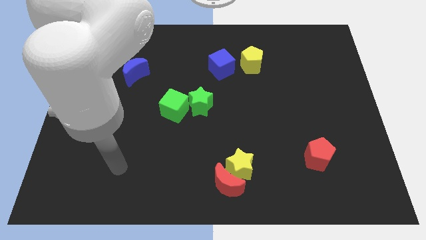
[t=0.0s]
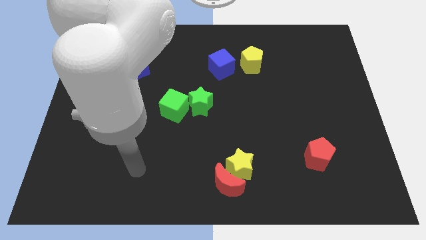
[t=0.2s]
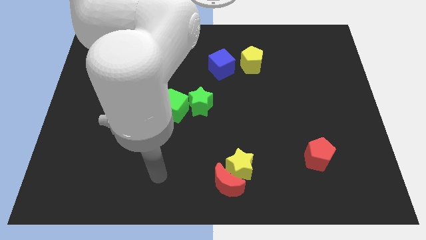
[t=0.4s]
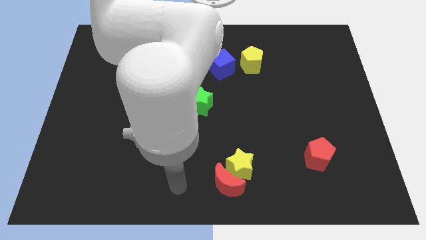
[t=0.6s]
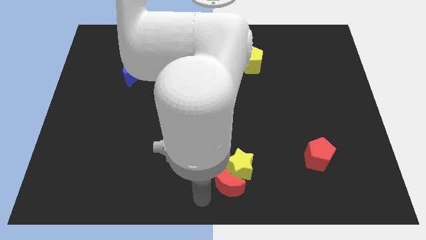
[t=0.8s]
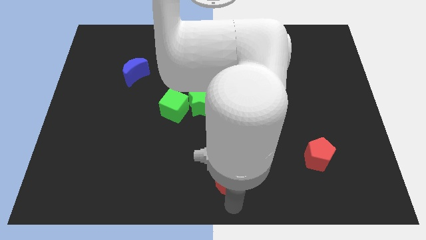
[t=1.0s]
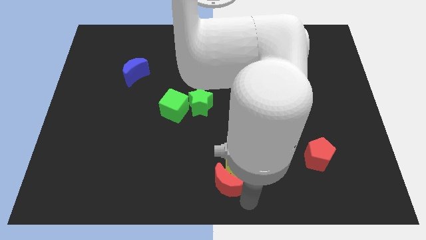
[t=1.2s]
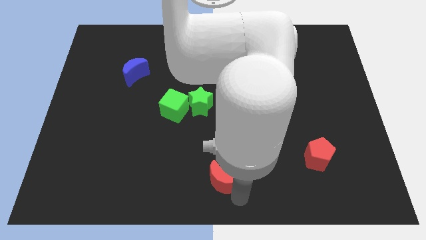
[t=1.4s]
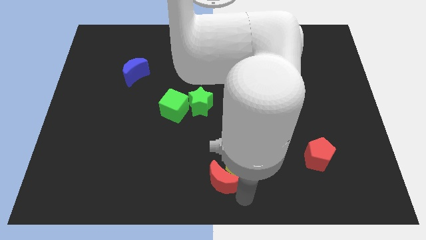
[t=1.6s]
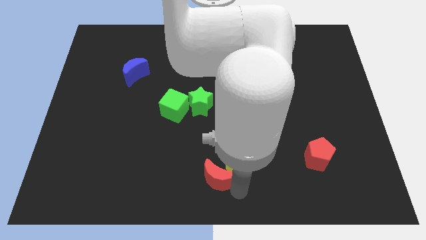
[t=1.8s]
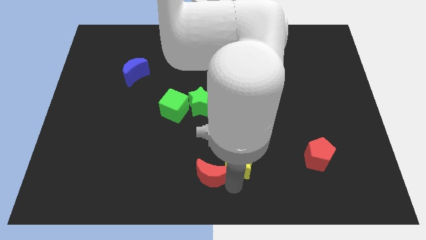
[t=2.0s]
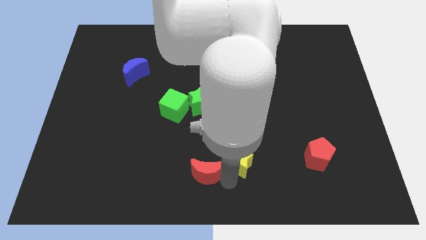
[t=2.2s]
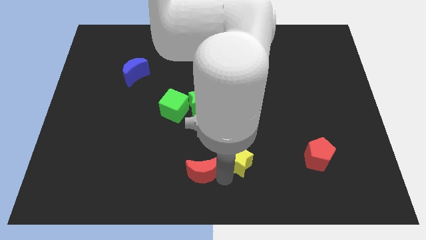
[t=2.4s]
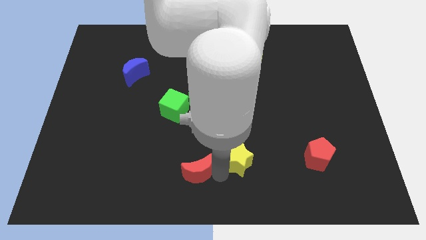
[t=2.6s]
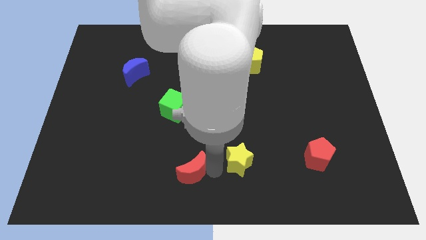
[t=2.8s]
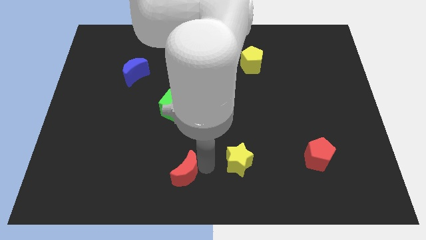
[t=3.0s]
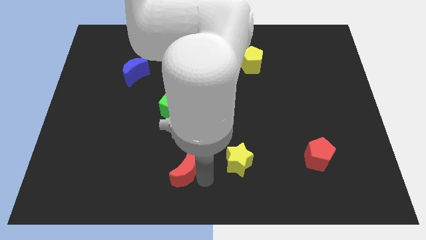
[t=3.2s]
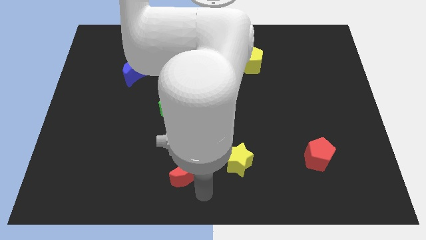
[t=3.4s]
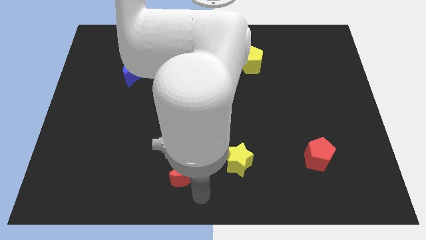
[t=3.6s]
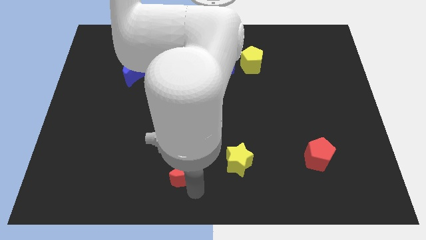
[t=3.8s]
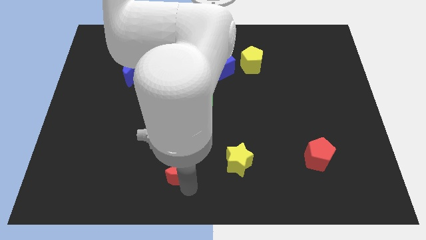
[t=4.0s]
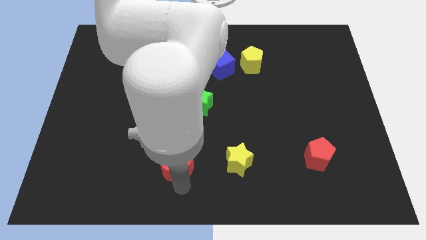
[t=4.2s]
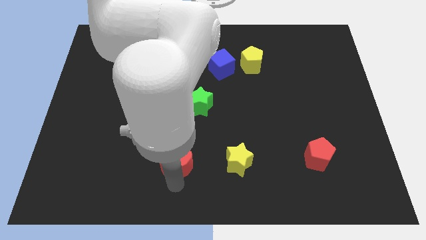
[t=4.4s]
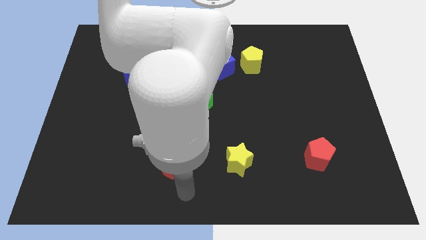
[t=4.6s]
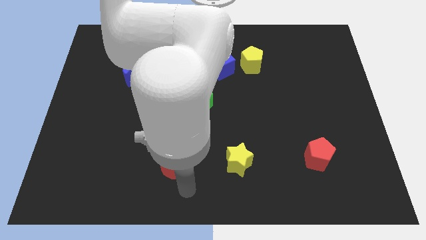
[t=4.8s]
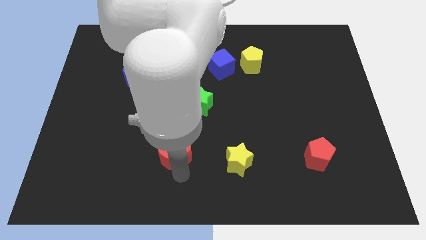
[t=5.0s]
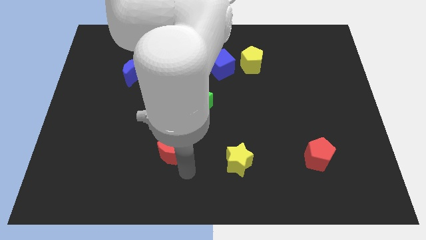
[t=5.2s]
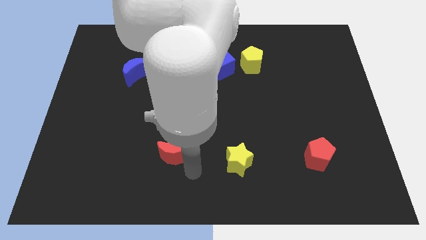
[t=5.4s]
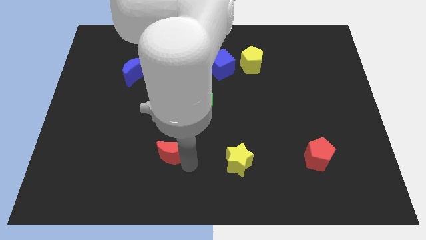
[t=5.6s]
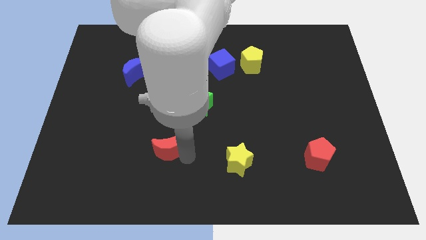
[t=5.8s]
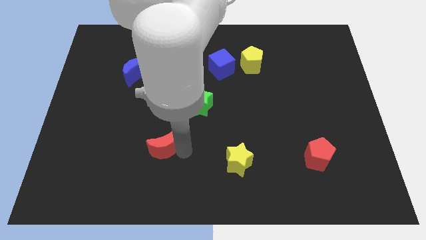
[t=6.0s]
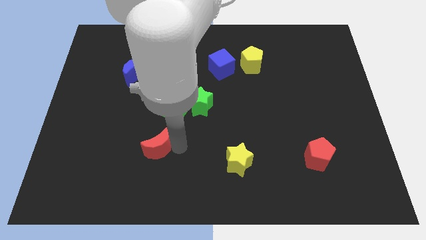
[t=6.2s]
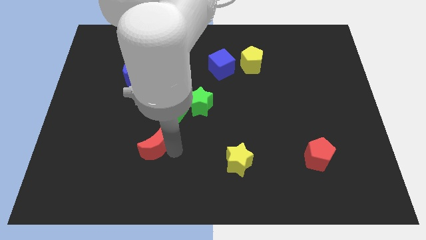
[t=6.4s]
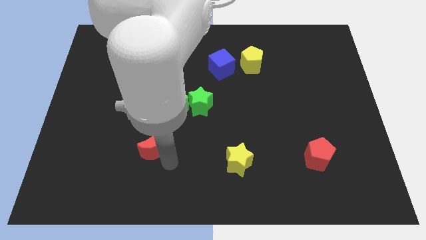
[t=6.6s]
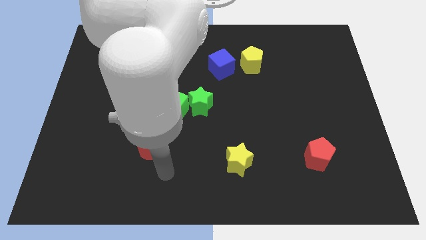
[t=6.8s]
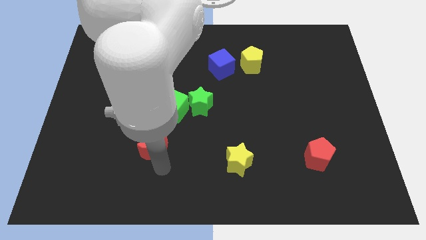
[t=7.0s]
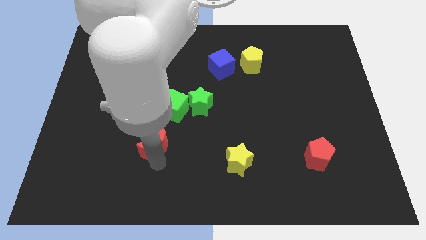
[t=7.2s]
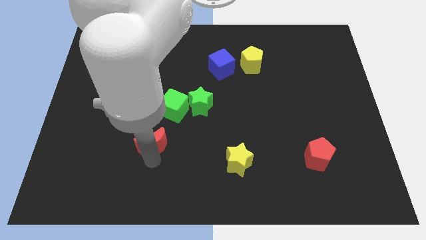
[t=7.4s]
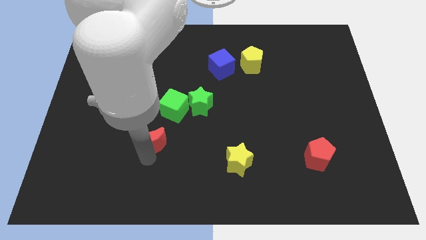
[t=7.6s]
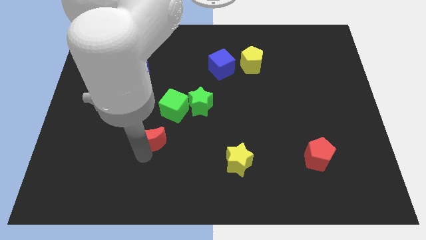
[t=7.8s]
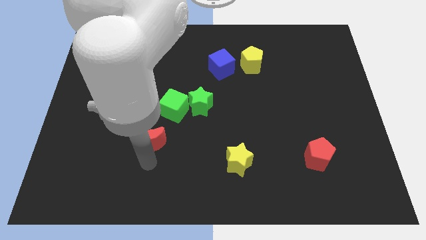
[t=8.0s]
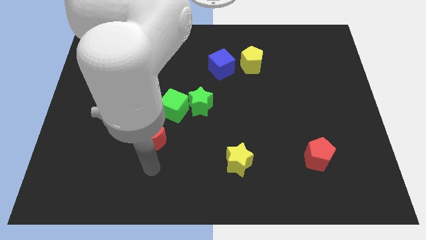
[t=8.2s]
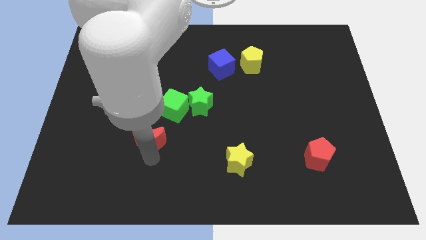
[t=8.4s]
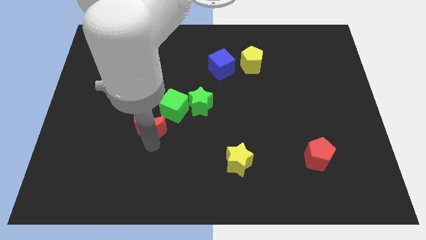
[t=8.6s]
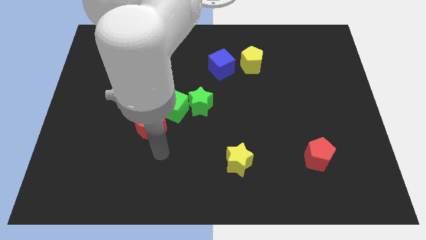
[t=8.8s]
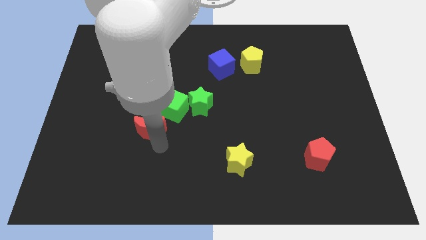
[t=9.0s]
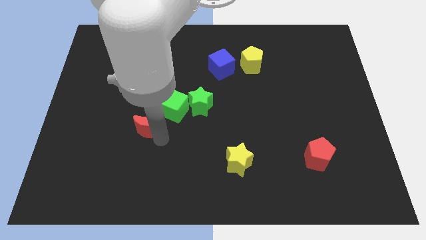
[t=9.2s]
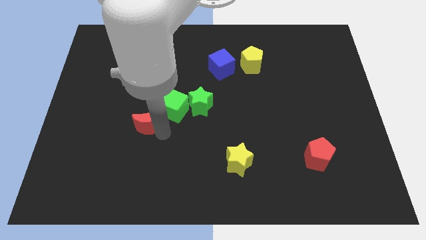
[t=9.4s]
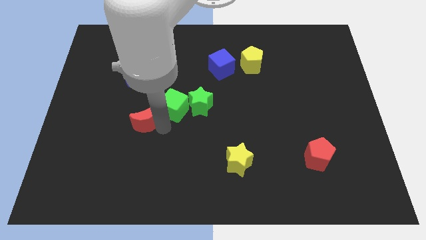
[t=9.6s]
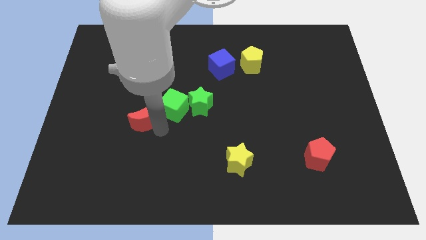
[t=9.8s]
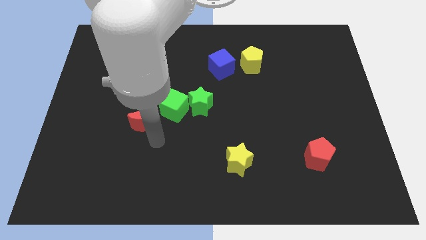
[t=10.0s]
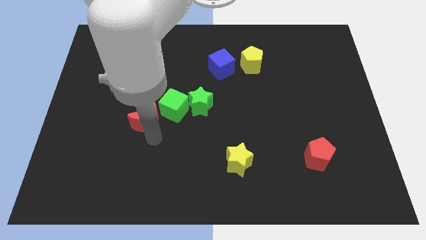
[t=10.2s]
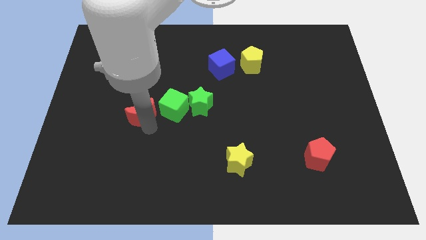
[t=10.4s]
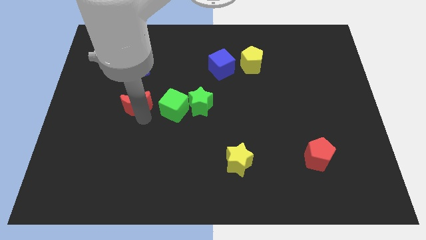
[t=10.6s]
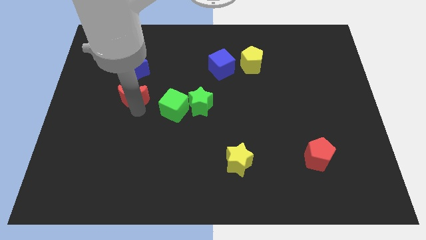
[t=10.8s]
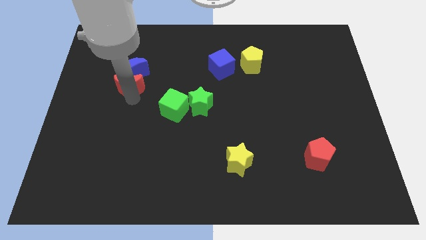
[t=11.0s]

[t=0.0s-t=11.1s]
move the red moon close to the blue moon

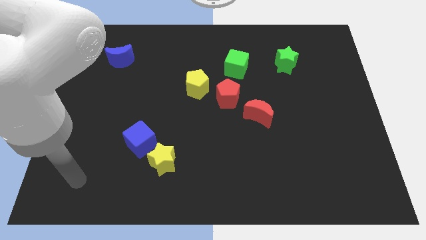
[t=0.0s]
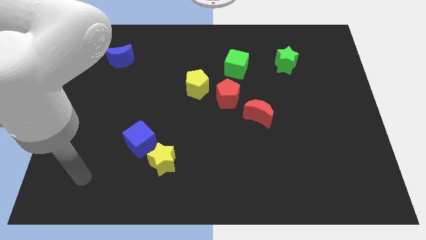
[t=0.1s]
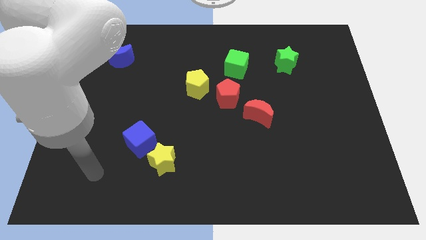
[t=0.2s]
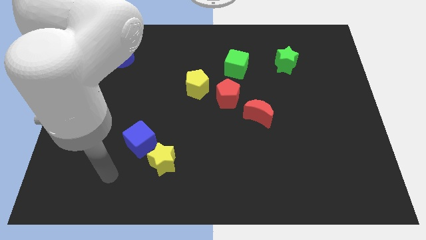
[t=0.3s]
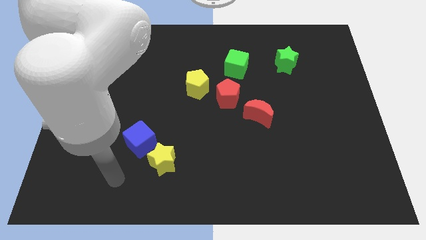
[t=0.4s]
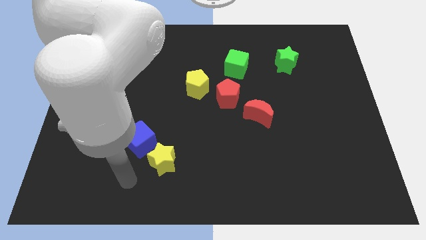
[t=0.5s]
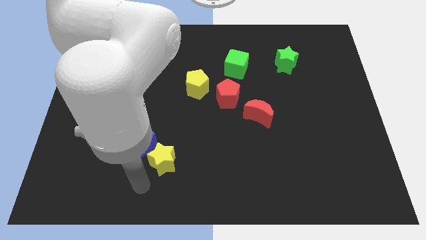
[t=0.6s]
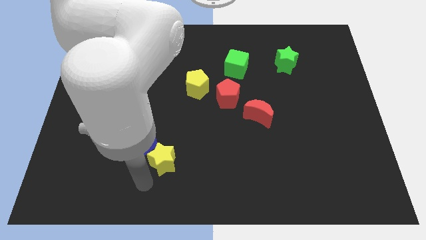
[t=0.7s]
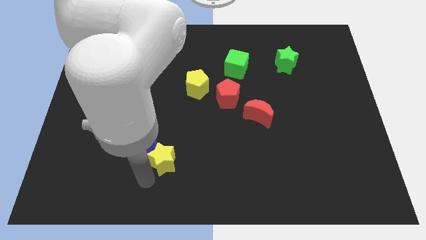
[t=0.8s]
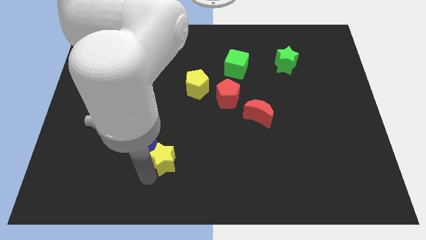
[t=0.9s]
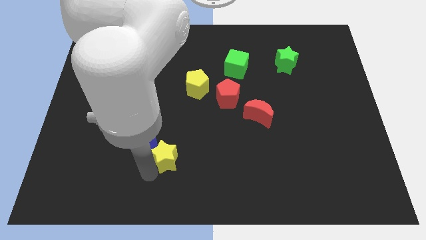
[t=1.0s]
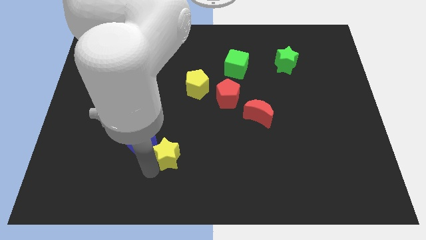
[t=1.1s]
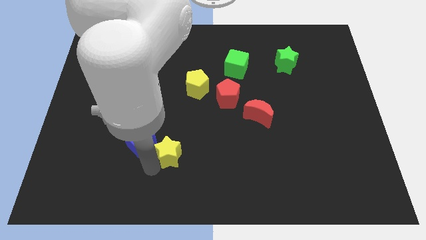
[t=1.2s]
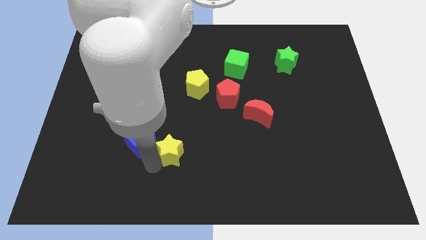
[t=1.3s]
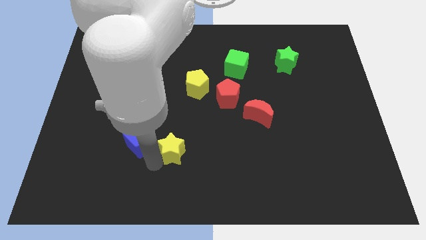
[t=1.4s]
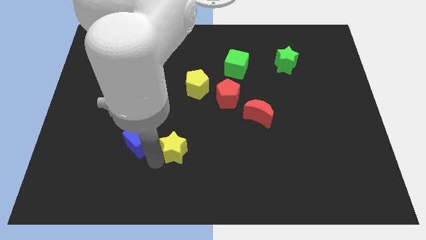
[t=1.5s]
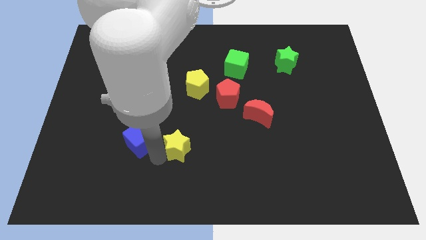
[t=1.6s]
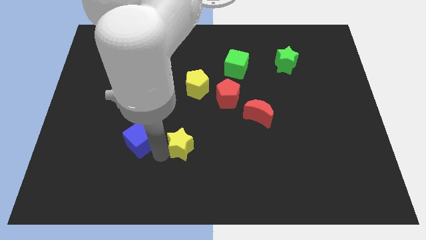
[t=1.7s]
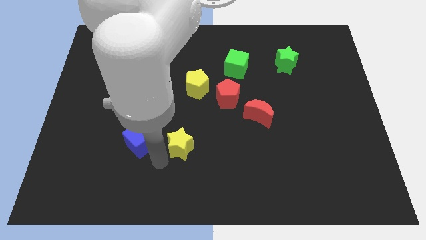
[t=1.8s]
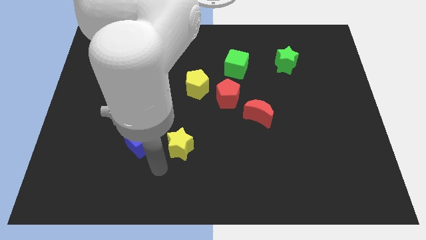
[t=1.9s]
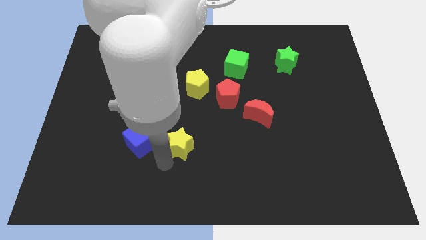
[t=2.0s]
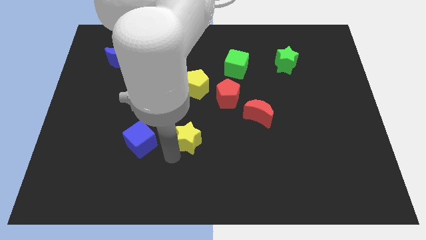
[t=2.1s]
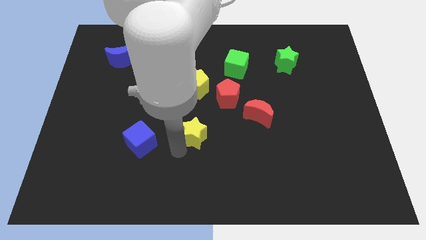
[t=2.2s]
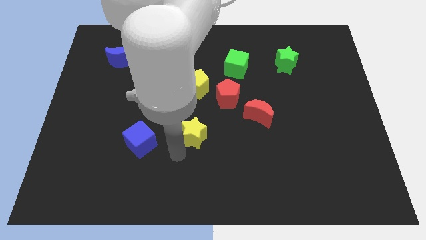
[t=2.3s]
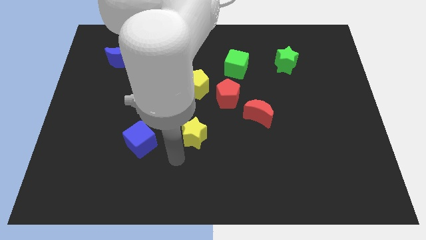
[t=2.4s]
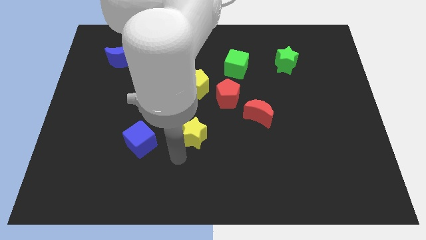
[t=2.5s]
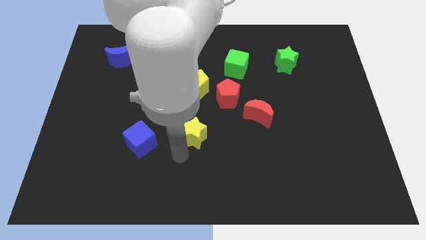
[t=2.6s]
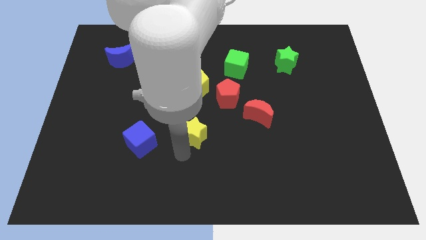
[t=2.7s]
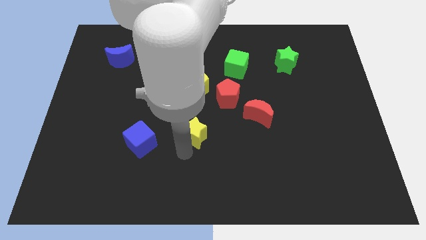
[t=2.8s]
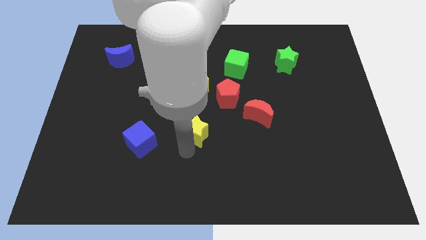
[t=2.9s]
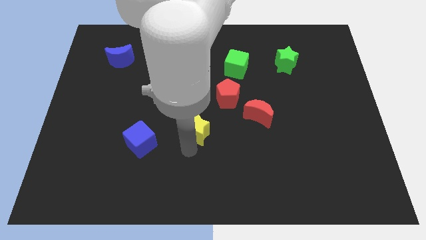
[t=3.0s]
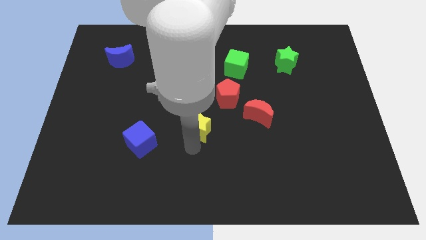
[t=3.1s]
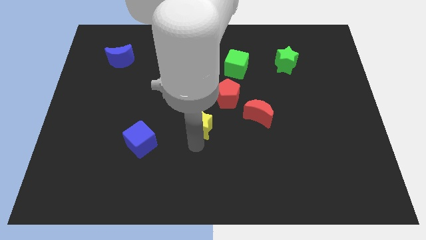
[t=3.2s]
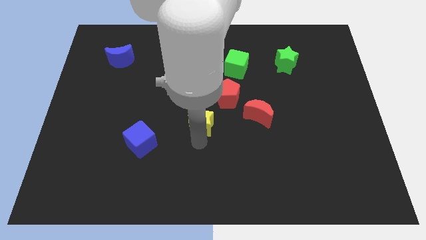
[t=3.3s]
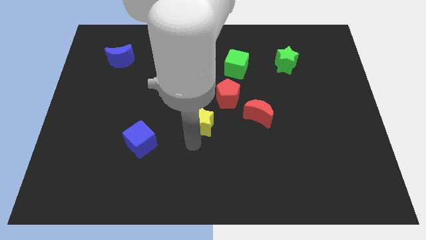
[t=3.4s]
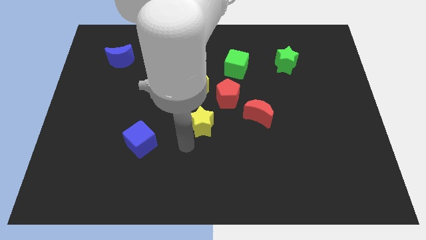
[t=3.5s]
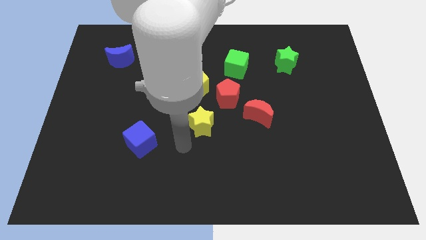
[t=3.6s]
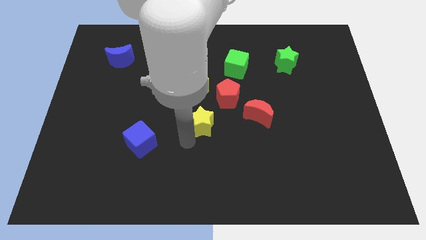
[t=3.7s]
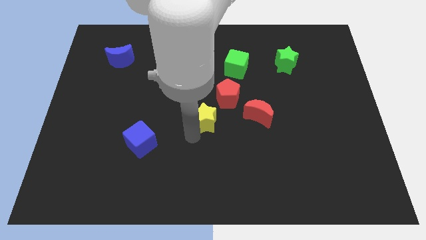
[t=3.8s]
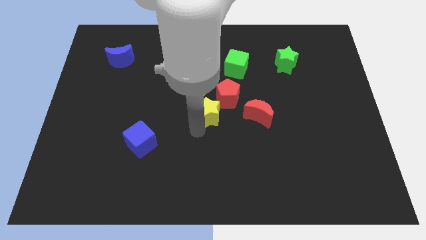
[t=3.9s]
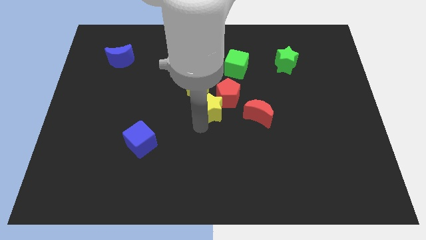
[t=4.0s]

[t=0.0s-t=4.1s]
slide the yellow star close to the red pentagon
